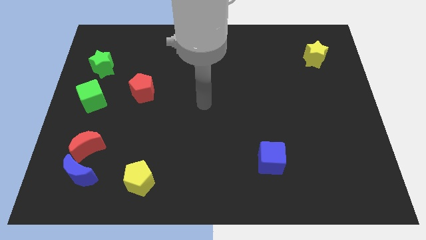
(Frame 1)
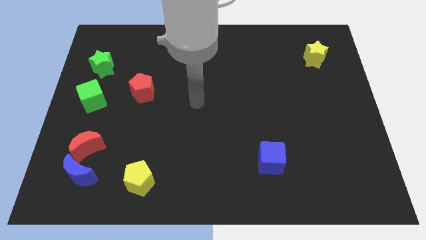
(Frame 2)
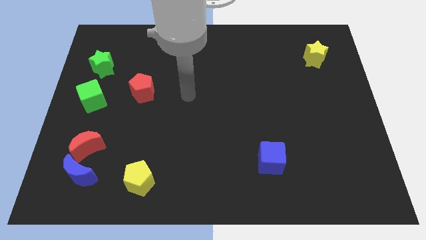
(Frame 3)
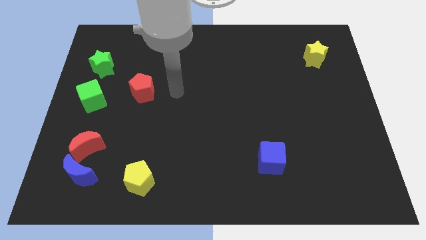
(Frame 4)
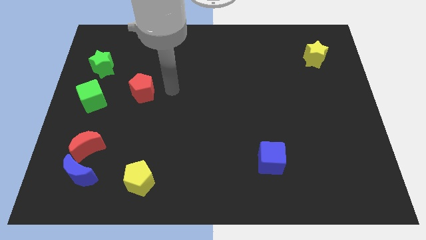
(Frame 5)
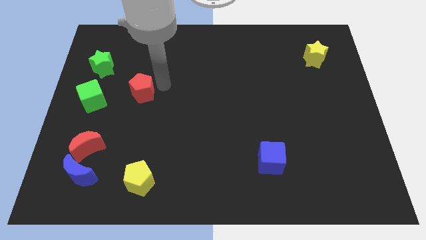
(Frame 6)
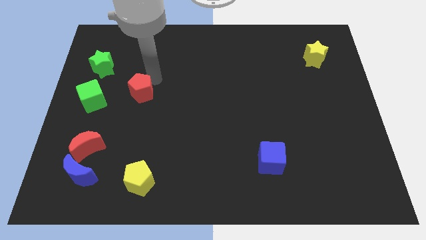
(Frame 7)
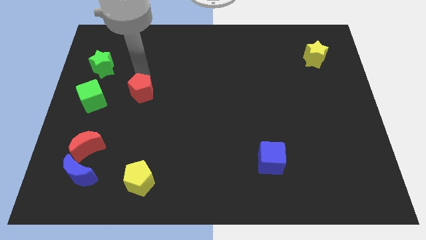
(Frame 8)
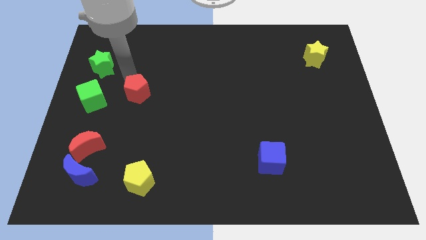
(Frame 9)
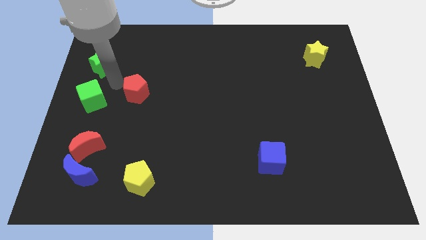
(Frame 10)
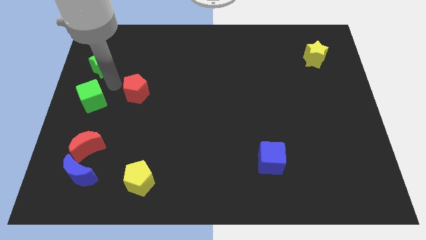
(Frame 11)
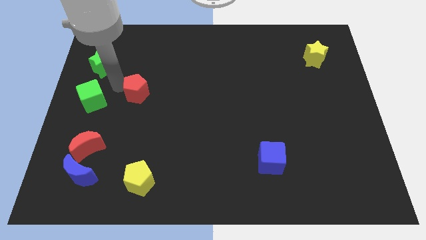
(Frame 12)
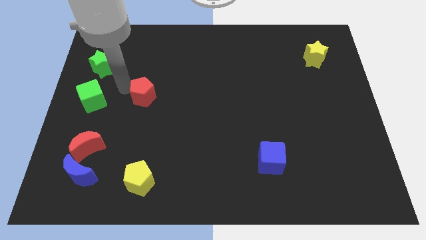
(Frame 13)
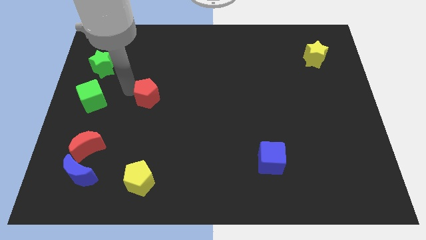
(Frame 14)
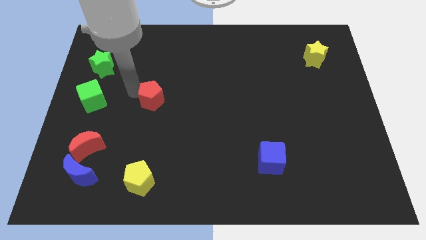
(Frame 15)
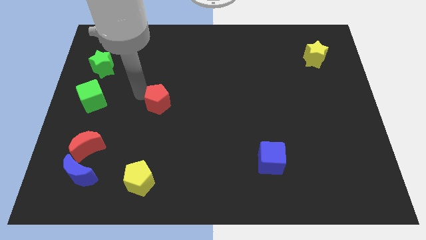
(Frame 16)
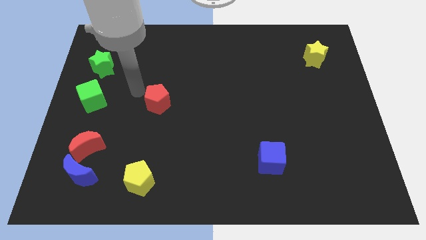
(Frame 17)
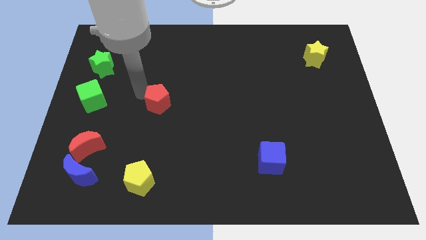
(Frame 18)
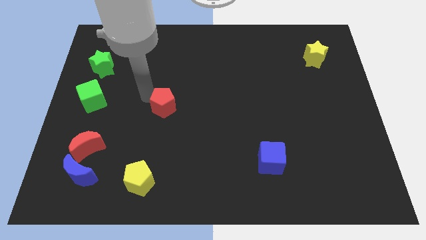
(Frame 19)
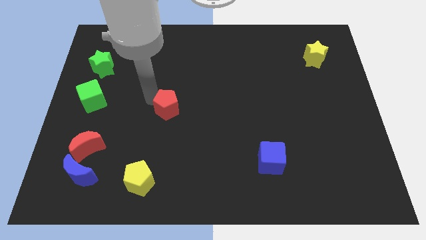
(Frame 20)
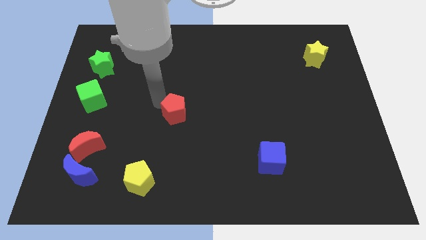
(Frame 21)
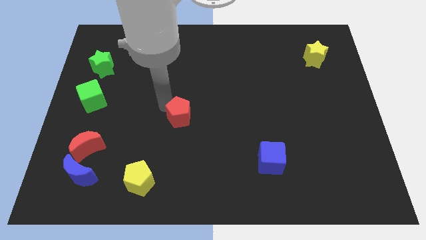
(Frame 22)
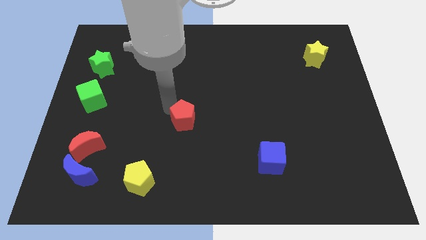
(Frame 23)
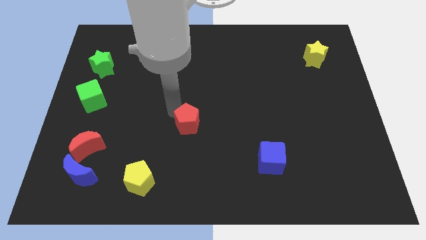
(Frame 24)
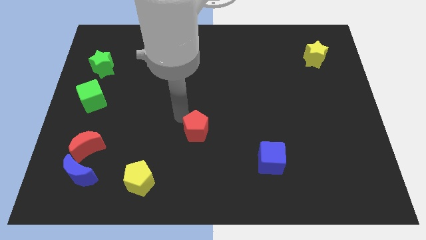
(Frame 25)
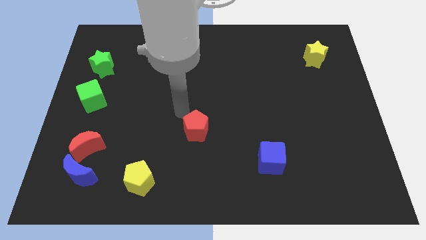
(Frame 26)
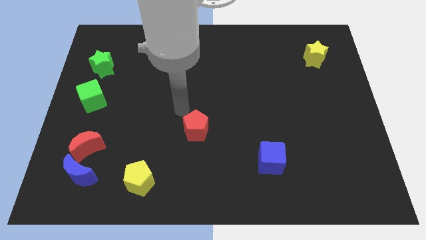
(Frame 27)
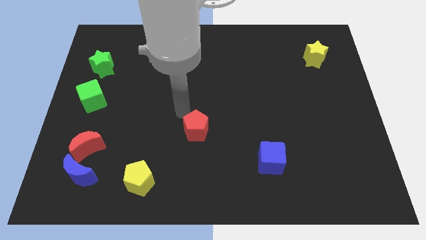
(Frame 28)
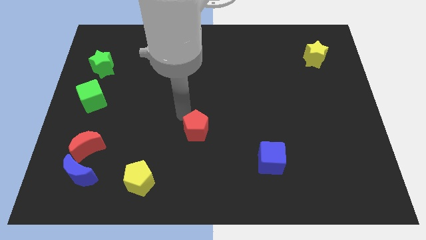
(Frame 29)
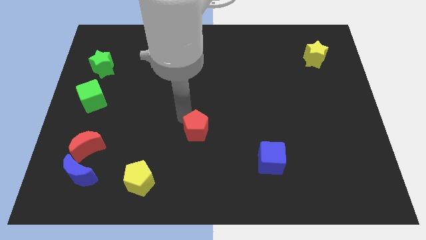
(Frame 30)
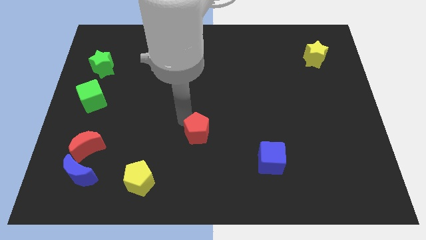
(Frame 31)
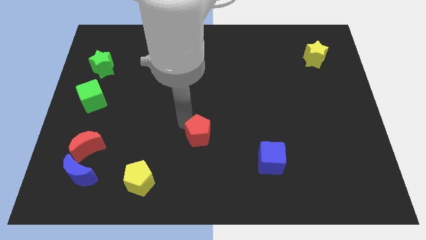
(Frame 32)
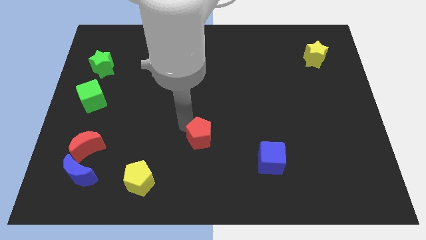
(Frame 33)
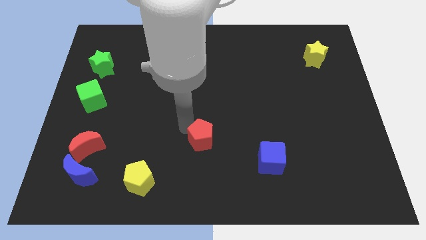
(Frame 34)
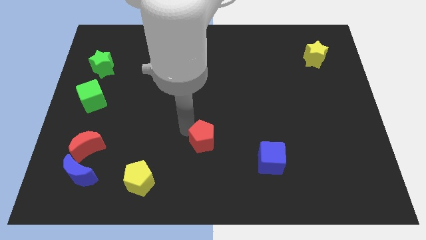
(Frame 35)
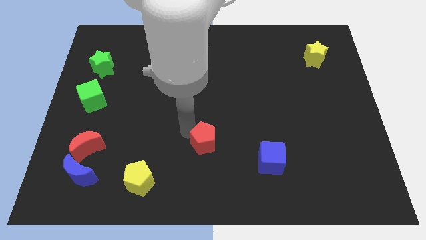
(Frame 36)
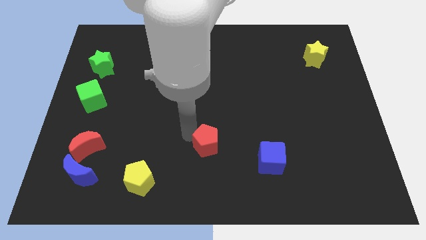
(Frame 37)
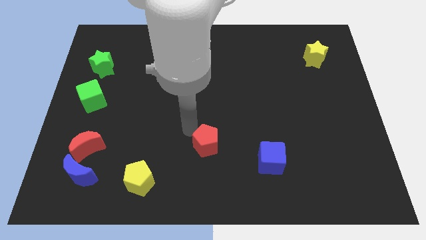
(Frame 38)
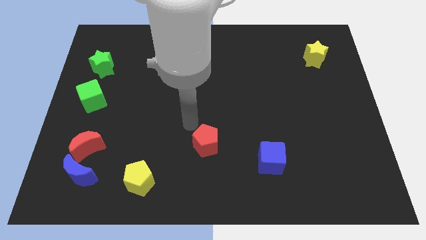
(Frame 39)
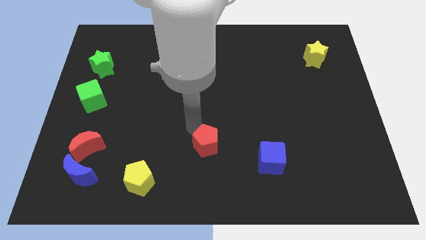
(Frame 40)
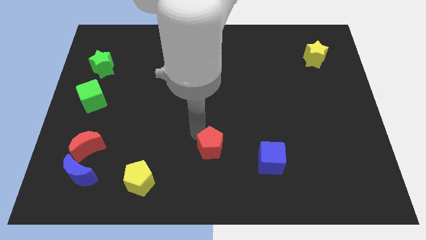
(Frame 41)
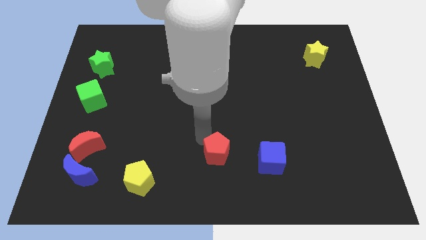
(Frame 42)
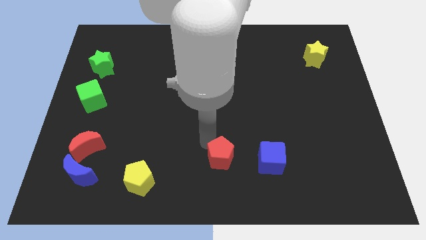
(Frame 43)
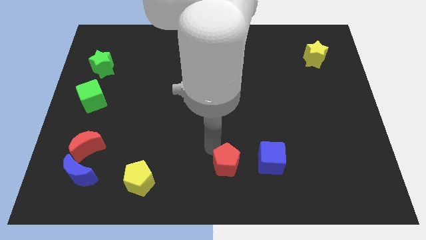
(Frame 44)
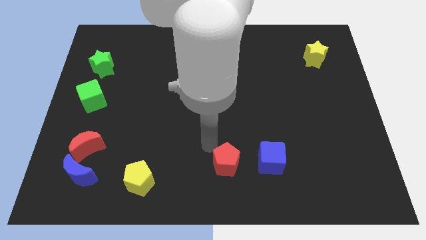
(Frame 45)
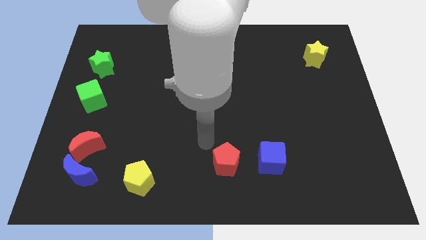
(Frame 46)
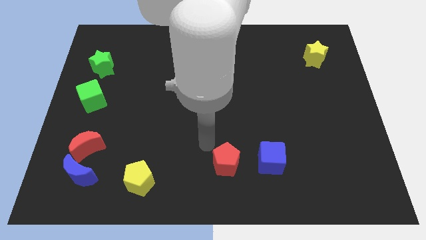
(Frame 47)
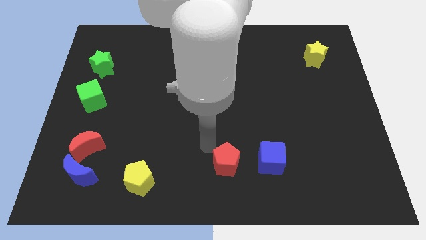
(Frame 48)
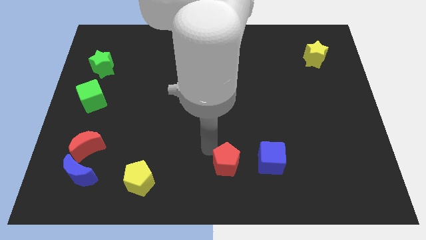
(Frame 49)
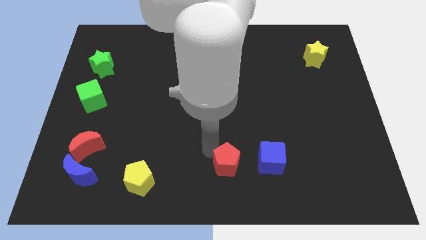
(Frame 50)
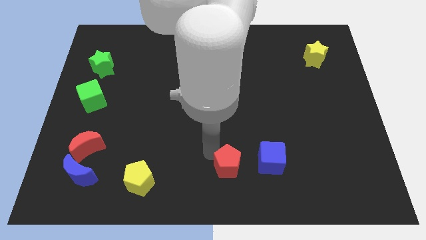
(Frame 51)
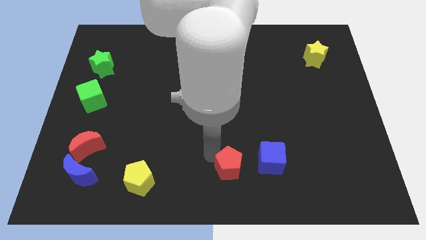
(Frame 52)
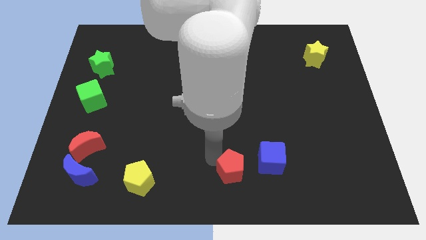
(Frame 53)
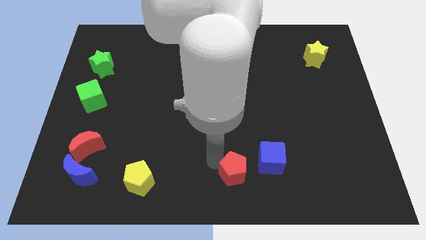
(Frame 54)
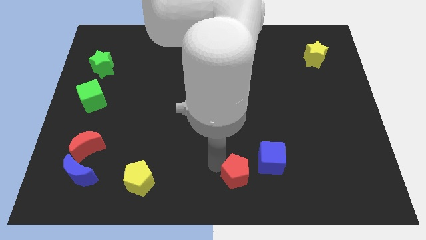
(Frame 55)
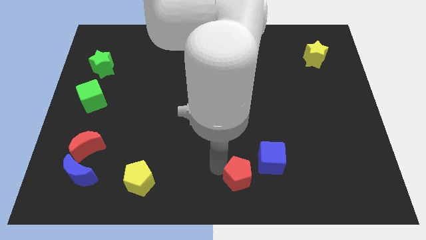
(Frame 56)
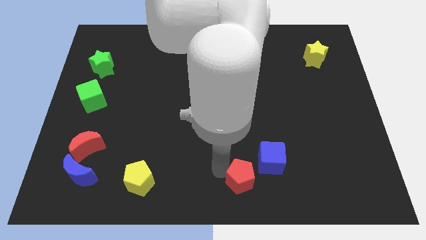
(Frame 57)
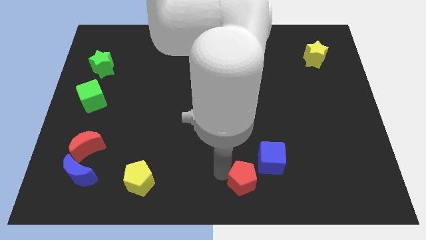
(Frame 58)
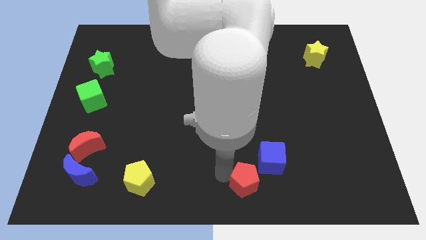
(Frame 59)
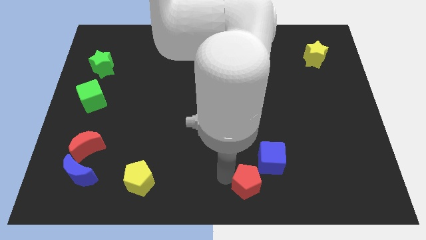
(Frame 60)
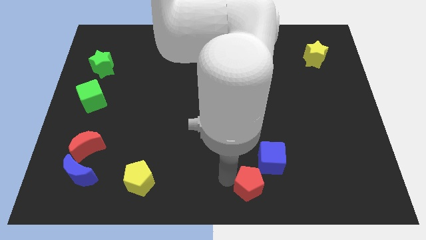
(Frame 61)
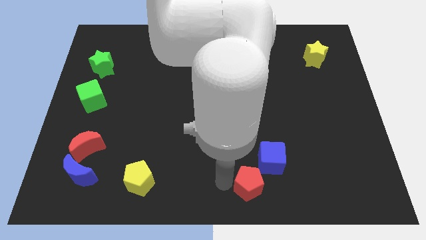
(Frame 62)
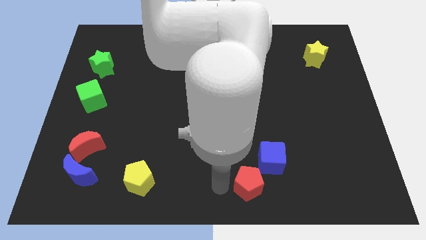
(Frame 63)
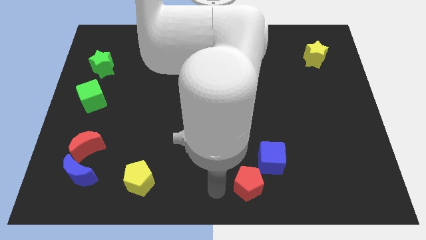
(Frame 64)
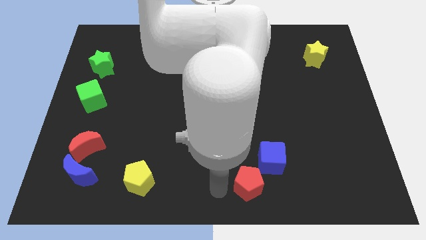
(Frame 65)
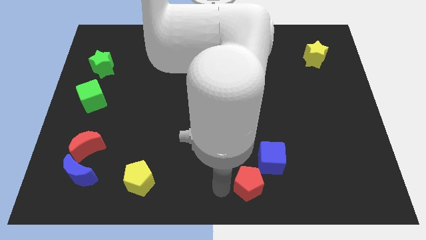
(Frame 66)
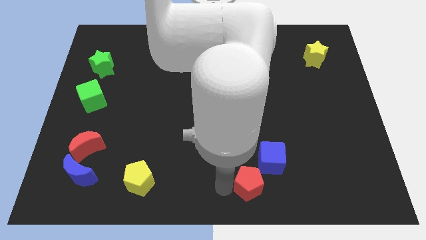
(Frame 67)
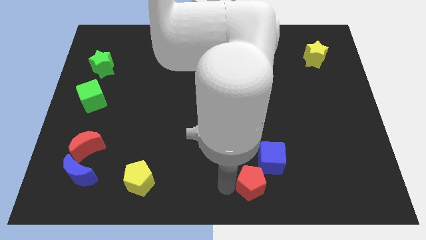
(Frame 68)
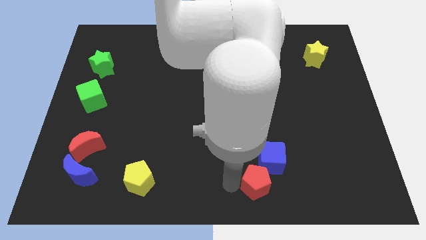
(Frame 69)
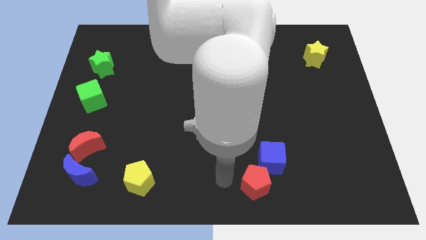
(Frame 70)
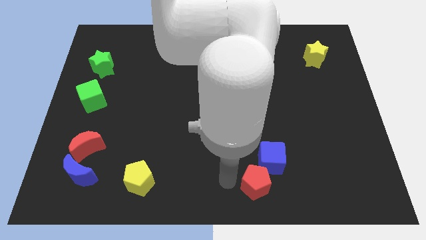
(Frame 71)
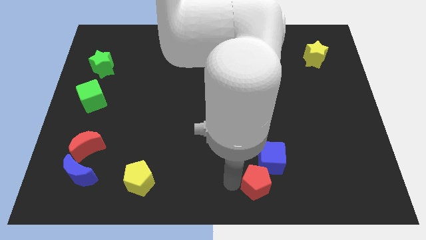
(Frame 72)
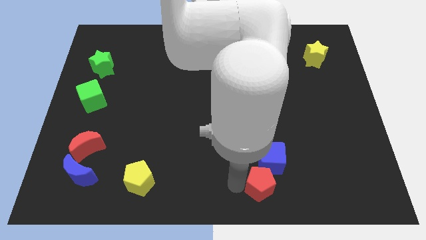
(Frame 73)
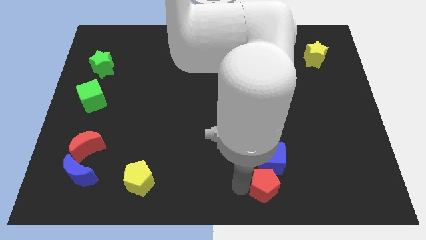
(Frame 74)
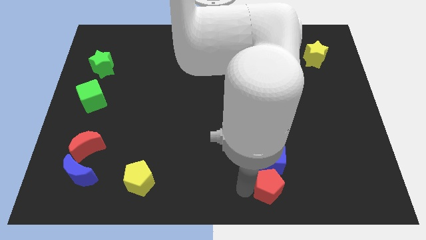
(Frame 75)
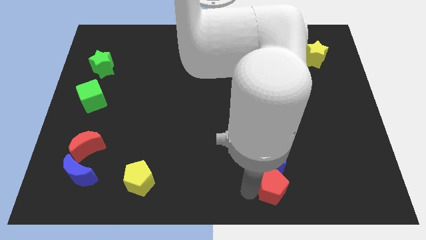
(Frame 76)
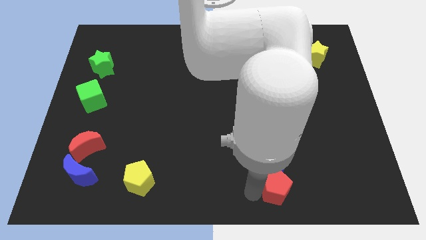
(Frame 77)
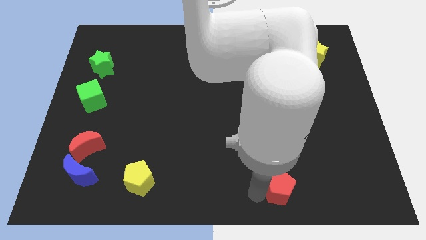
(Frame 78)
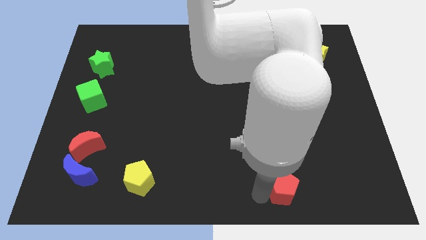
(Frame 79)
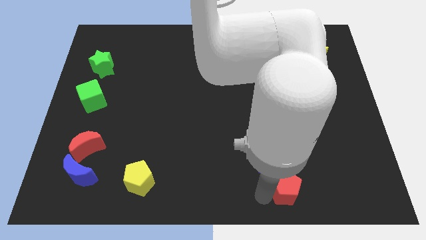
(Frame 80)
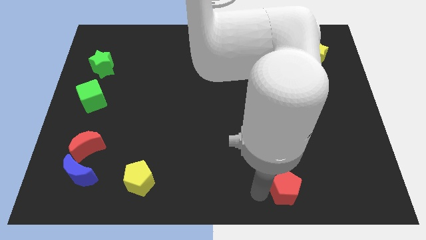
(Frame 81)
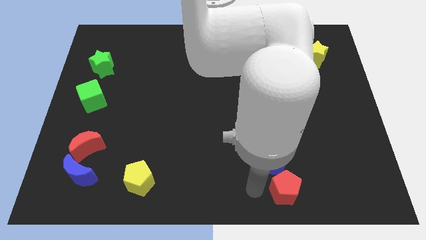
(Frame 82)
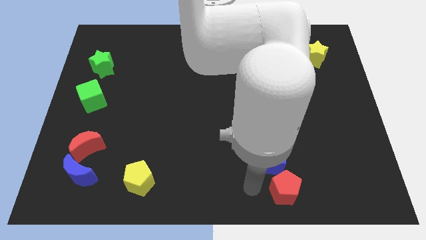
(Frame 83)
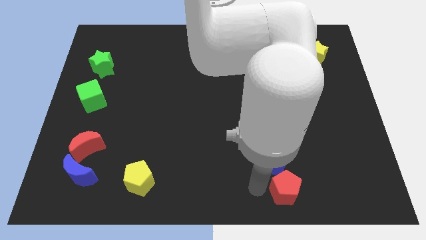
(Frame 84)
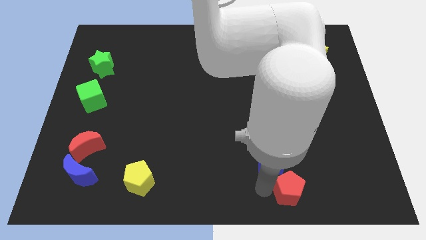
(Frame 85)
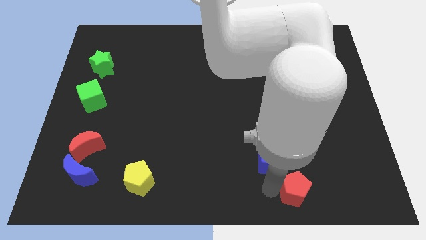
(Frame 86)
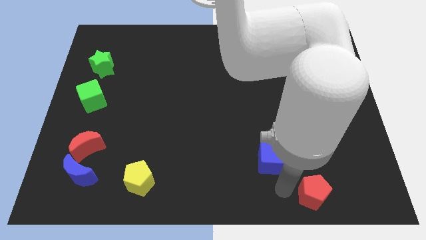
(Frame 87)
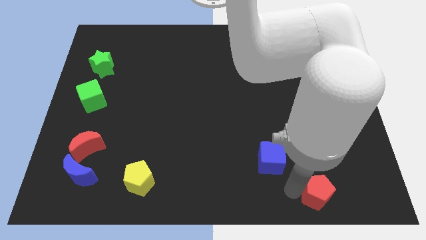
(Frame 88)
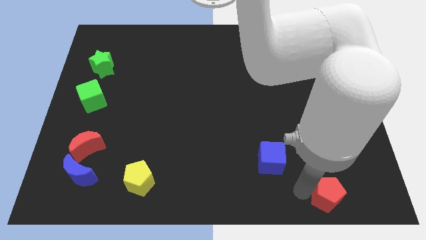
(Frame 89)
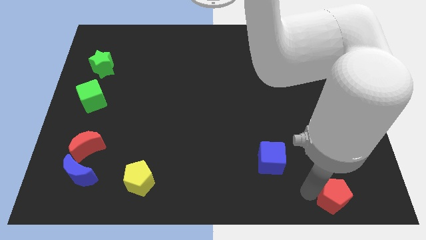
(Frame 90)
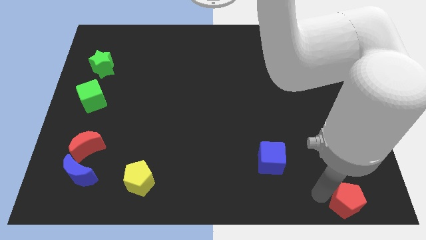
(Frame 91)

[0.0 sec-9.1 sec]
push the red pentagon to the lower right corner
